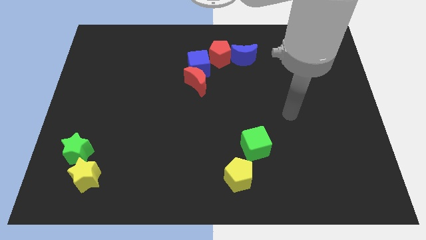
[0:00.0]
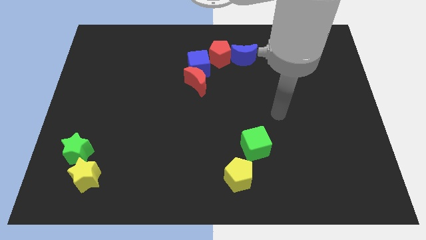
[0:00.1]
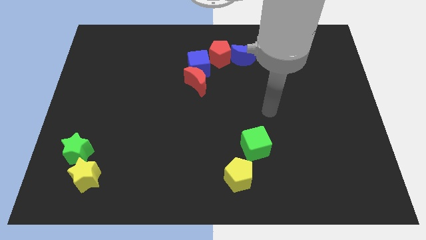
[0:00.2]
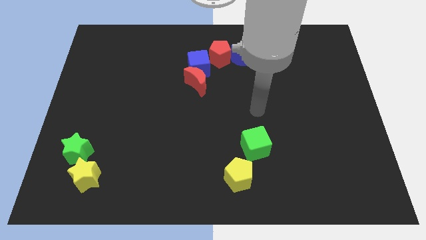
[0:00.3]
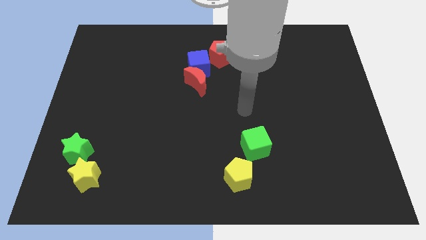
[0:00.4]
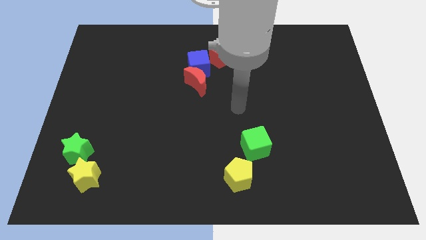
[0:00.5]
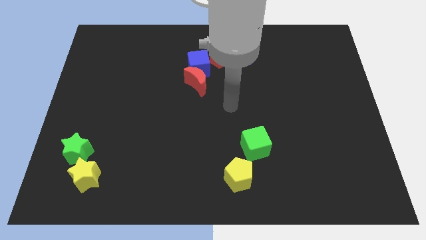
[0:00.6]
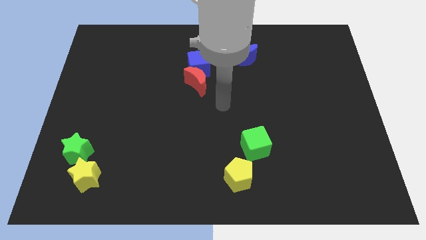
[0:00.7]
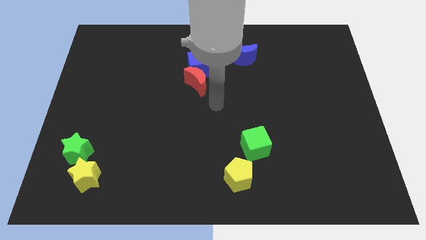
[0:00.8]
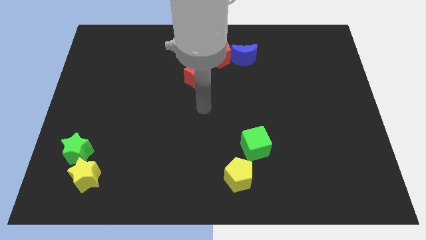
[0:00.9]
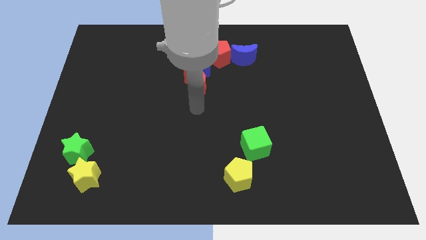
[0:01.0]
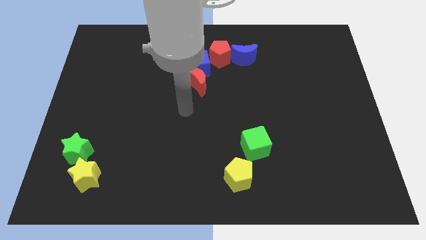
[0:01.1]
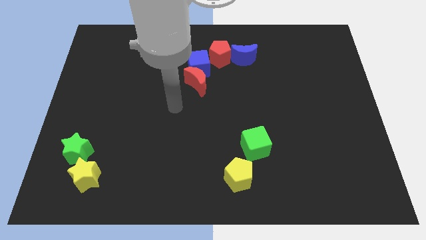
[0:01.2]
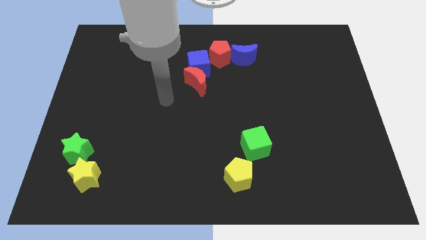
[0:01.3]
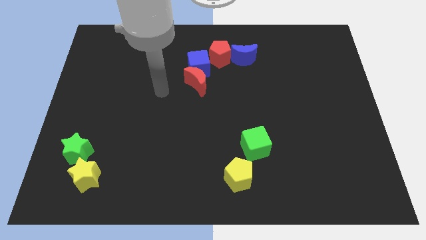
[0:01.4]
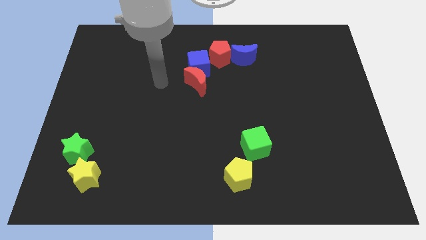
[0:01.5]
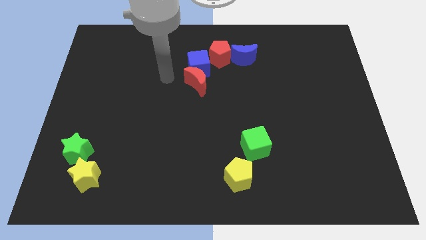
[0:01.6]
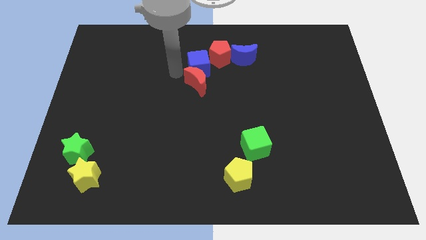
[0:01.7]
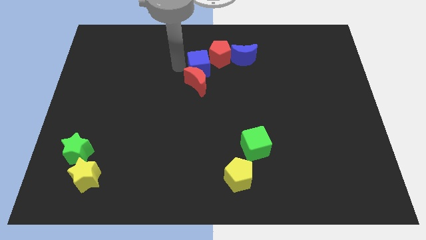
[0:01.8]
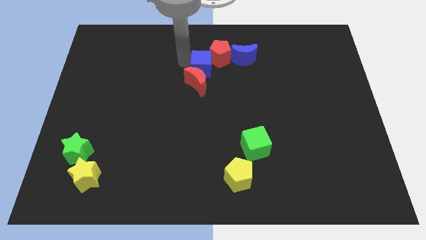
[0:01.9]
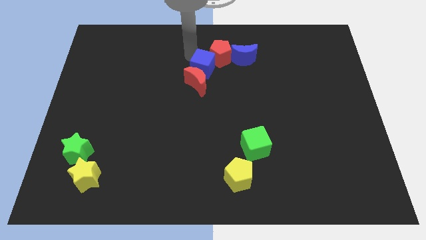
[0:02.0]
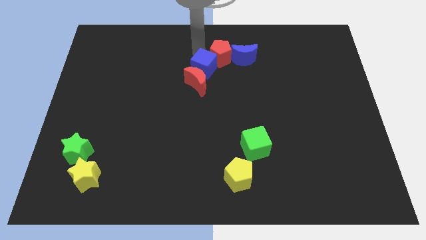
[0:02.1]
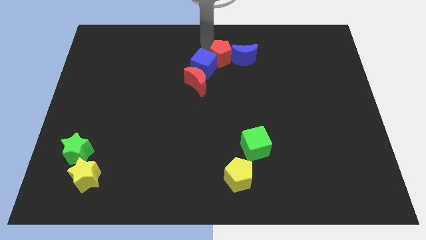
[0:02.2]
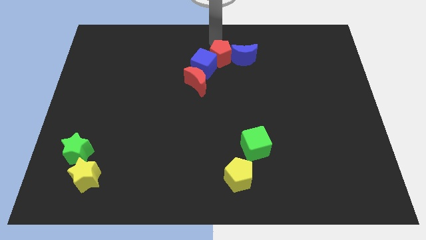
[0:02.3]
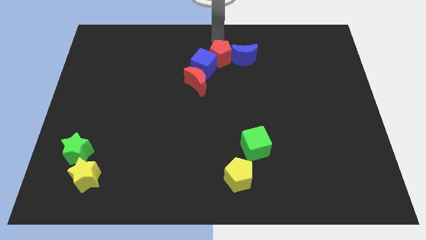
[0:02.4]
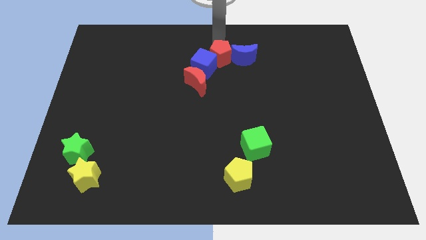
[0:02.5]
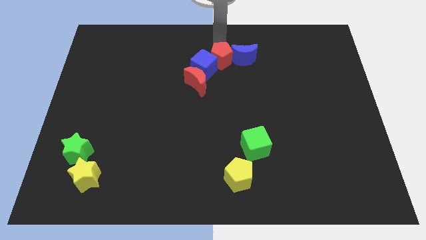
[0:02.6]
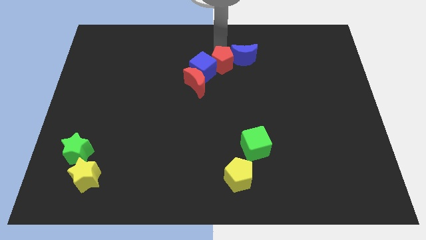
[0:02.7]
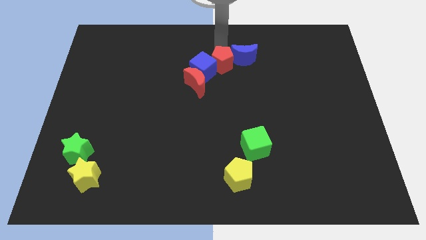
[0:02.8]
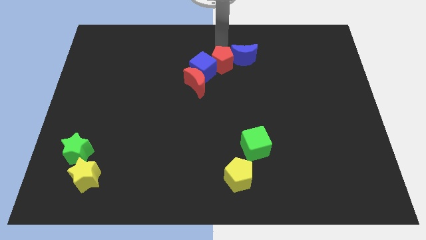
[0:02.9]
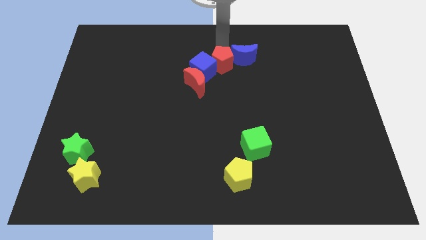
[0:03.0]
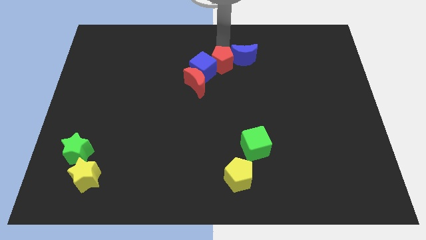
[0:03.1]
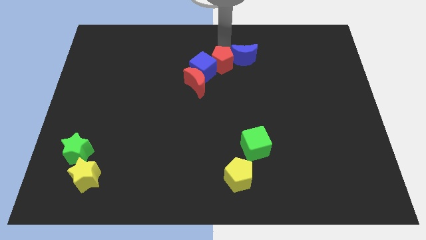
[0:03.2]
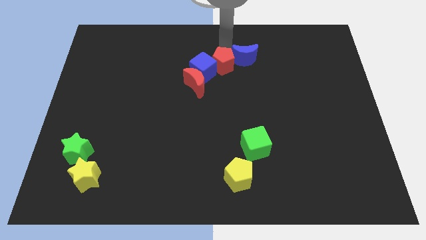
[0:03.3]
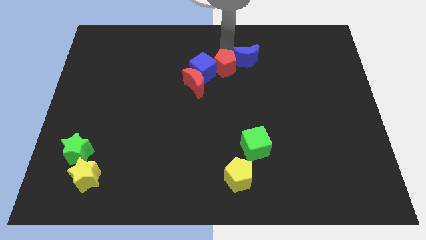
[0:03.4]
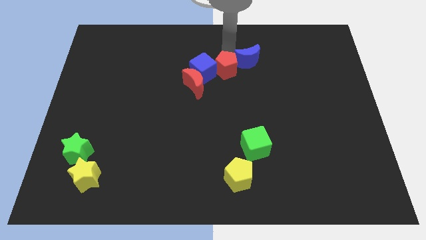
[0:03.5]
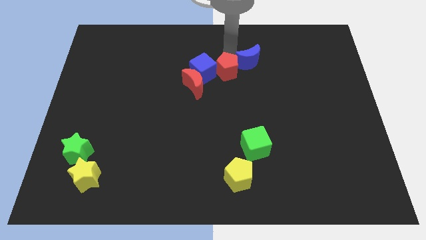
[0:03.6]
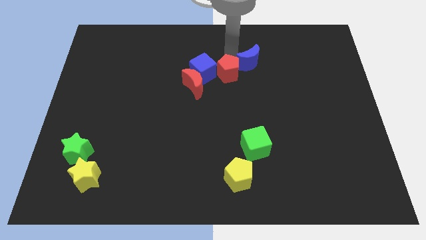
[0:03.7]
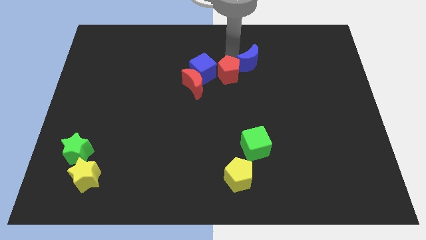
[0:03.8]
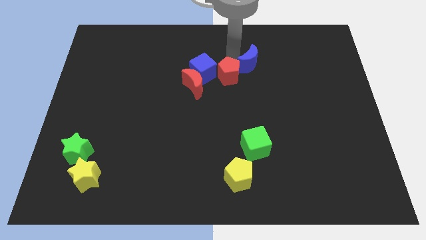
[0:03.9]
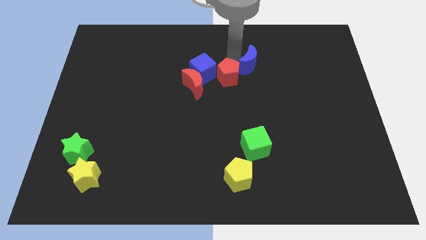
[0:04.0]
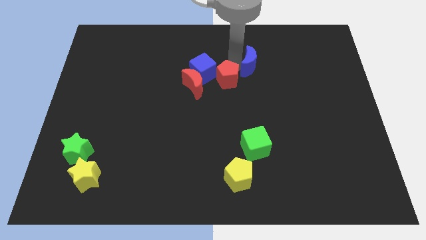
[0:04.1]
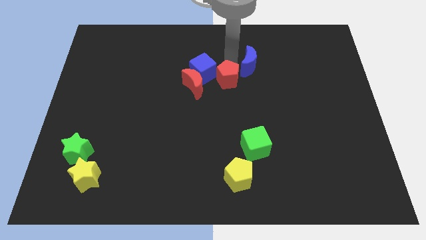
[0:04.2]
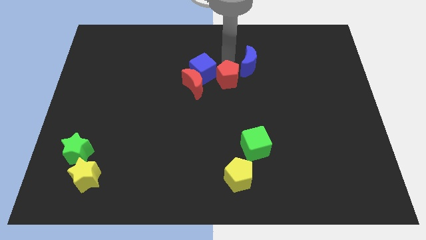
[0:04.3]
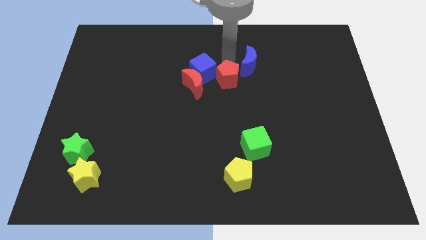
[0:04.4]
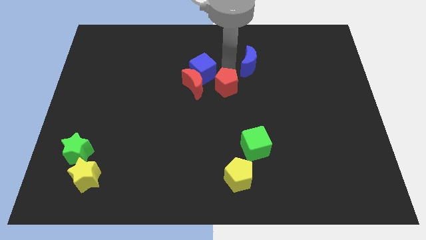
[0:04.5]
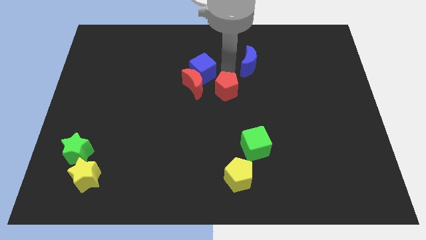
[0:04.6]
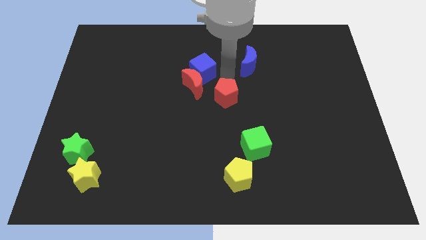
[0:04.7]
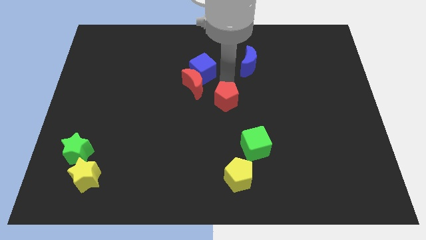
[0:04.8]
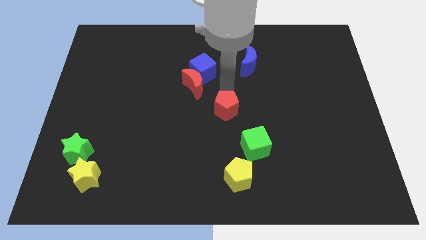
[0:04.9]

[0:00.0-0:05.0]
put the red pentagon to the top left of the green cube

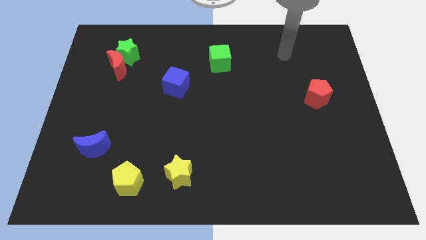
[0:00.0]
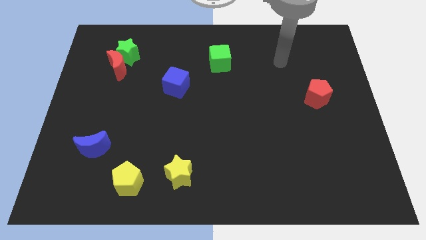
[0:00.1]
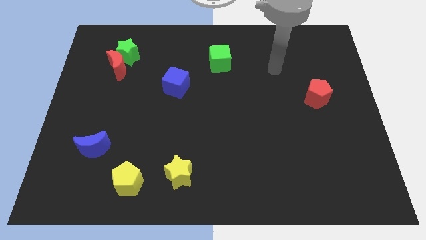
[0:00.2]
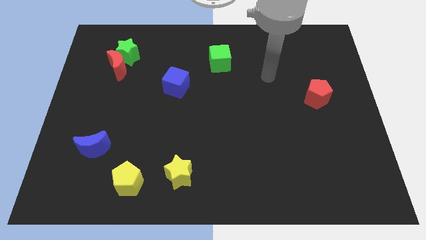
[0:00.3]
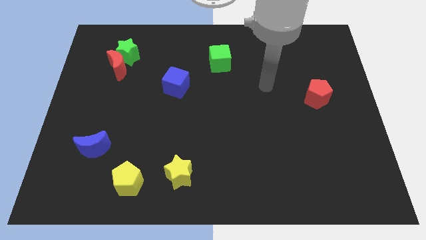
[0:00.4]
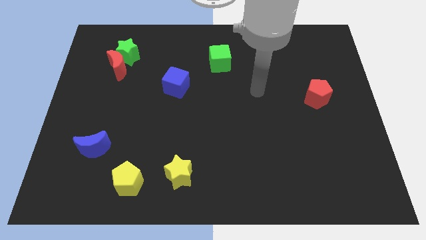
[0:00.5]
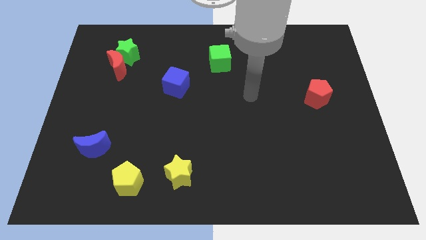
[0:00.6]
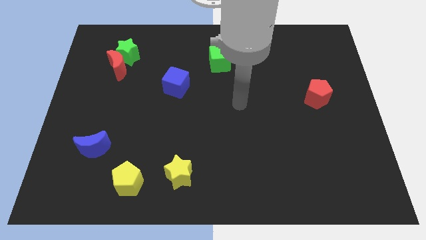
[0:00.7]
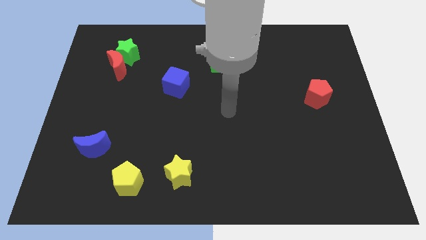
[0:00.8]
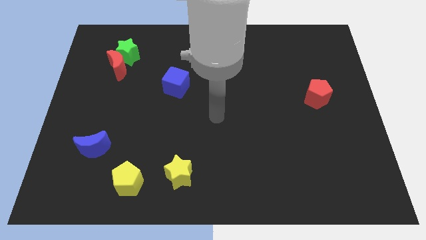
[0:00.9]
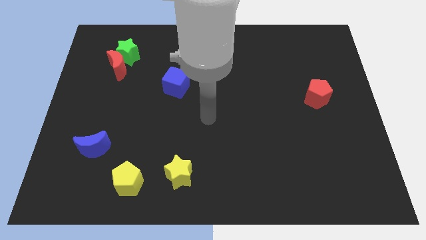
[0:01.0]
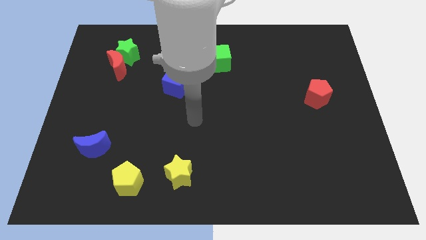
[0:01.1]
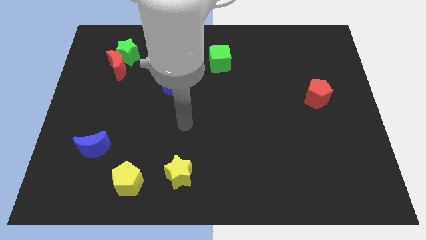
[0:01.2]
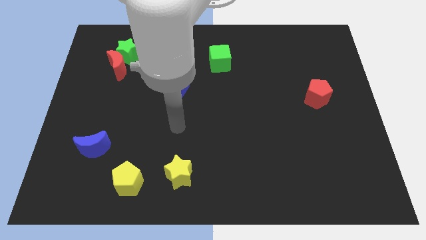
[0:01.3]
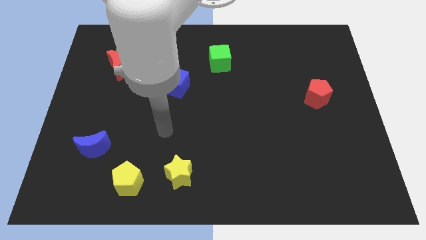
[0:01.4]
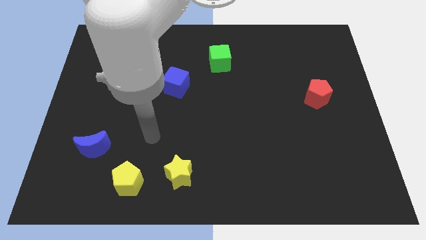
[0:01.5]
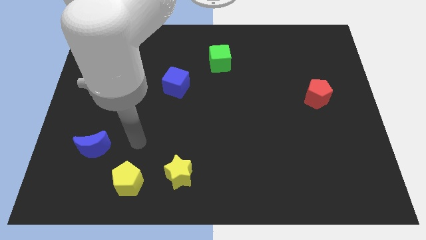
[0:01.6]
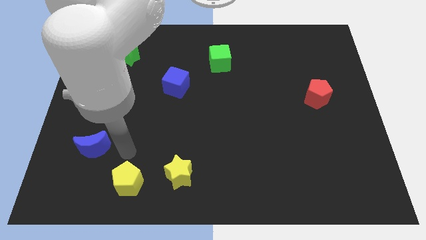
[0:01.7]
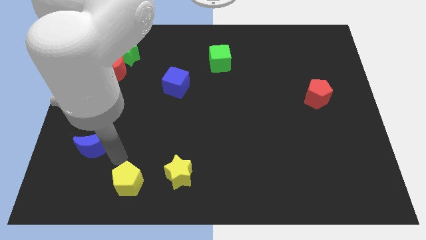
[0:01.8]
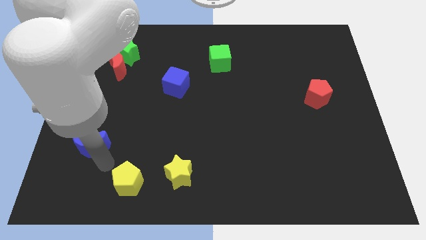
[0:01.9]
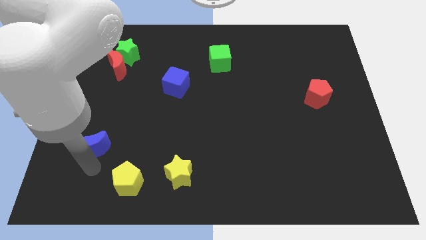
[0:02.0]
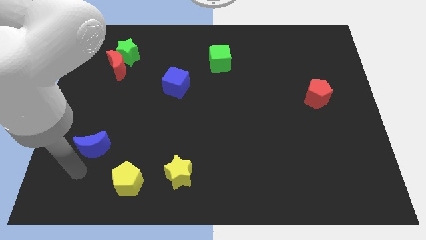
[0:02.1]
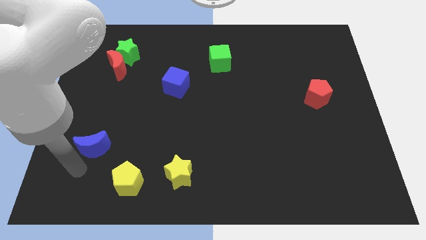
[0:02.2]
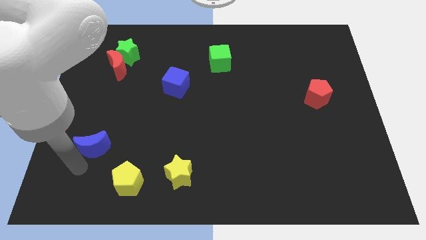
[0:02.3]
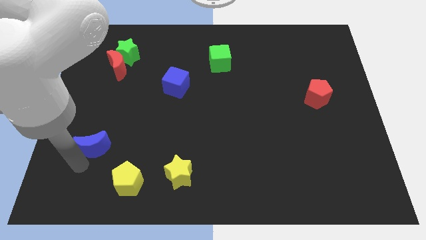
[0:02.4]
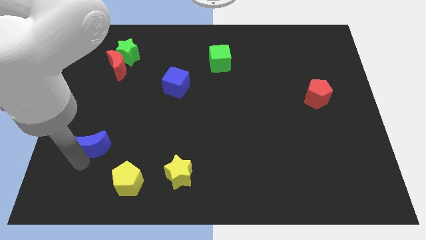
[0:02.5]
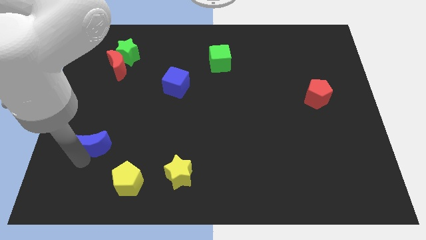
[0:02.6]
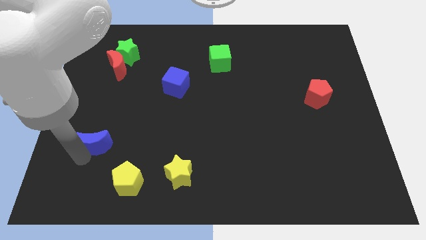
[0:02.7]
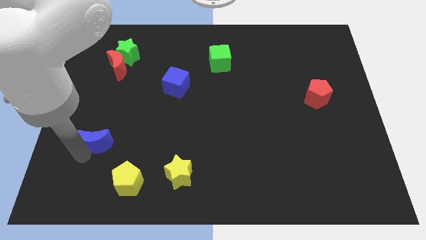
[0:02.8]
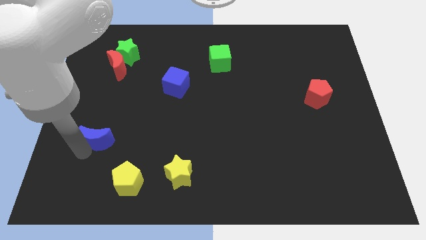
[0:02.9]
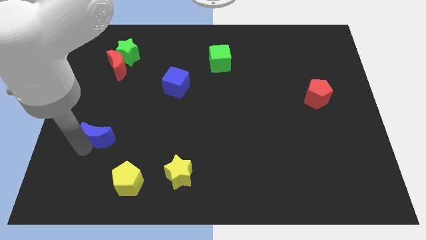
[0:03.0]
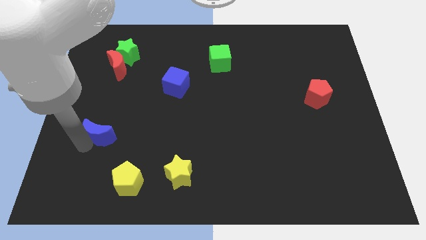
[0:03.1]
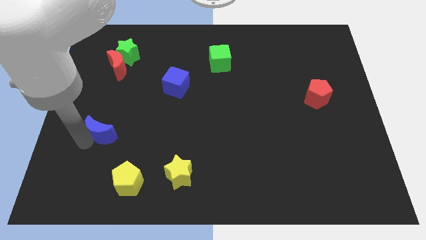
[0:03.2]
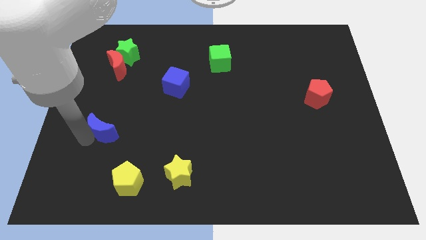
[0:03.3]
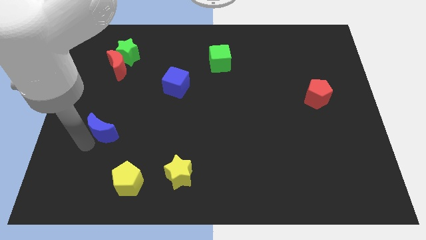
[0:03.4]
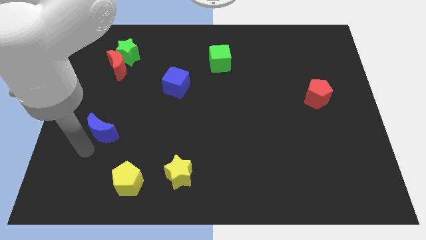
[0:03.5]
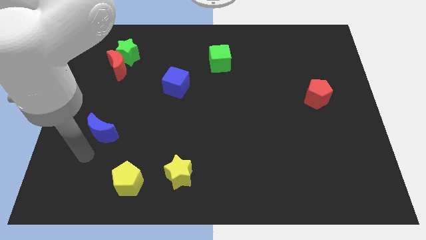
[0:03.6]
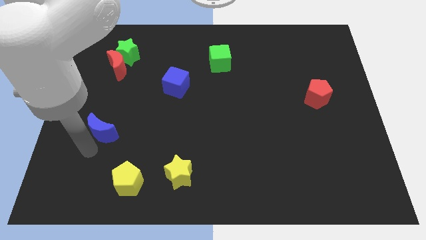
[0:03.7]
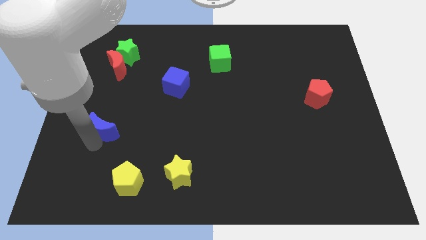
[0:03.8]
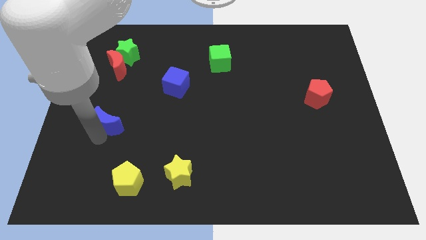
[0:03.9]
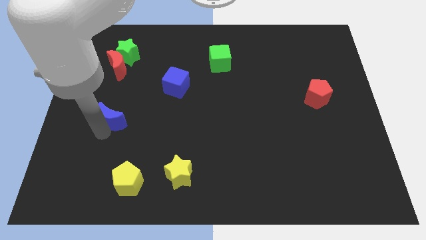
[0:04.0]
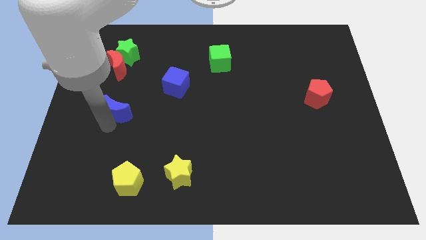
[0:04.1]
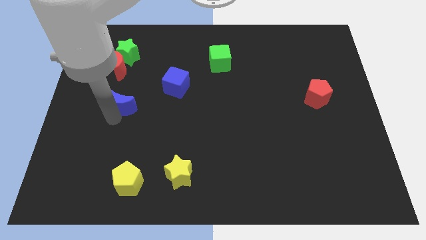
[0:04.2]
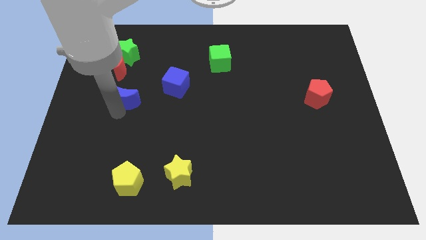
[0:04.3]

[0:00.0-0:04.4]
slide the blue moon left of the blue cube
